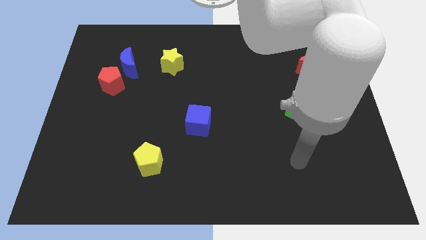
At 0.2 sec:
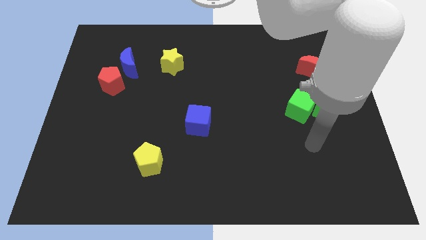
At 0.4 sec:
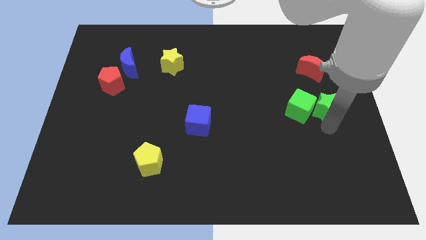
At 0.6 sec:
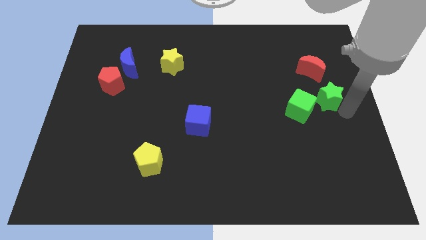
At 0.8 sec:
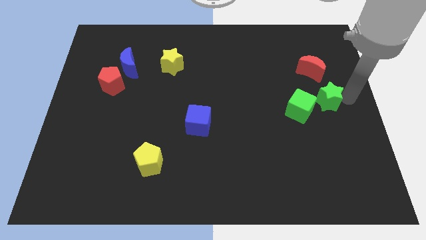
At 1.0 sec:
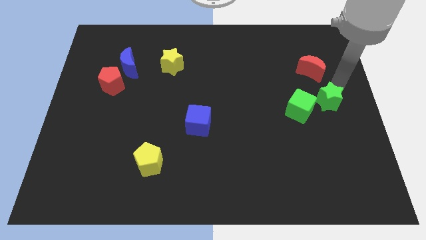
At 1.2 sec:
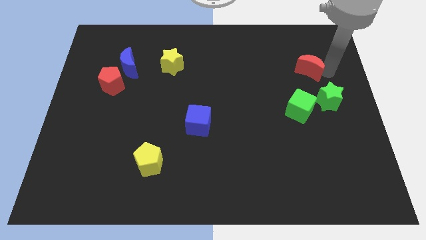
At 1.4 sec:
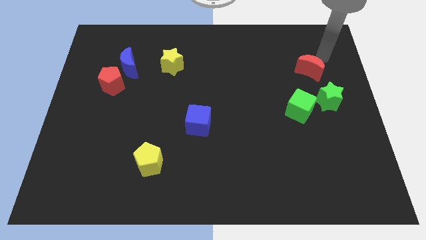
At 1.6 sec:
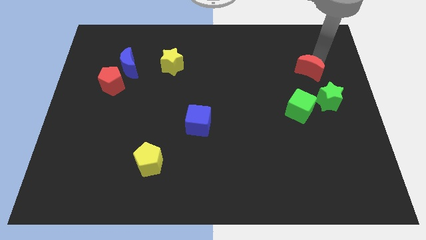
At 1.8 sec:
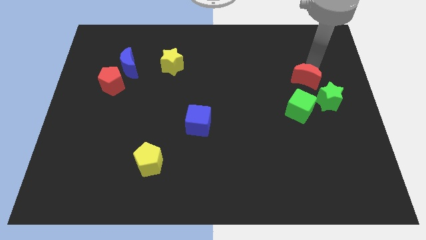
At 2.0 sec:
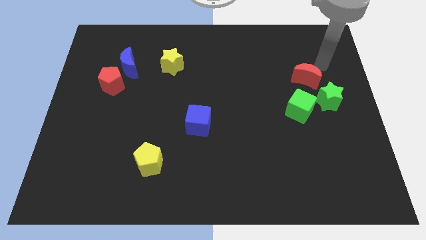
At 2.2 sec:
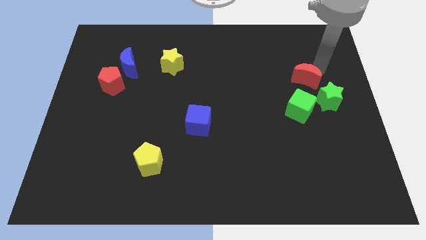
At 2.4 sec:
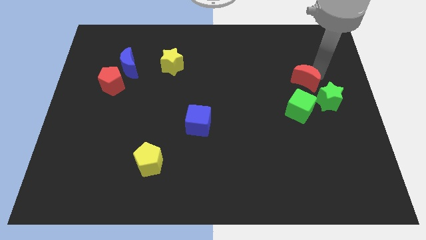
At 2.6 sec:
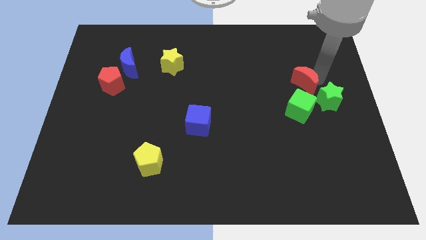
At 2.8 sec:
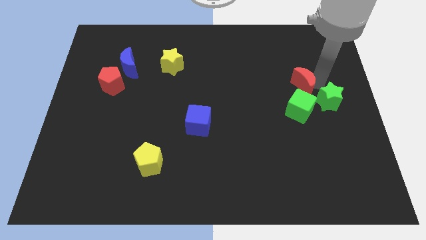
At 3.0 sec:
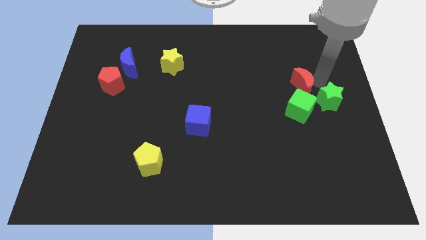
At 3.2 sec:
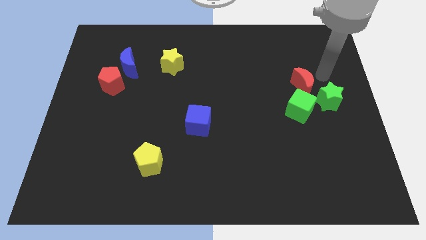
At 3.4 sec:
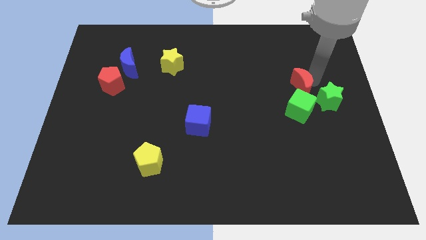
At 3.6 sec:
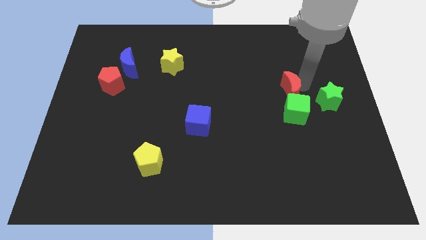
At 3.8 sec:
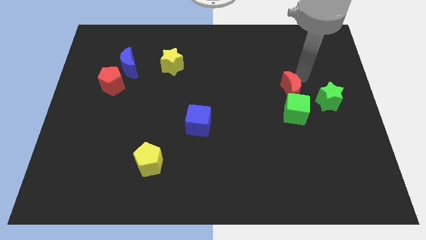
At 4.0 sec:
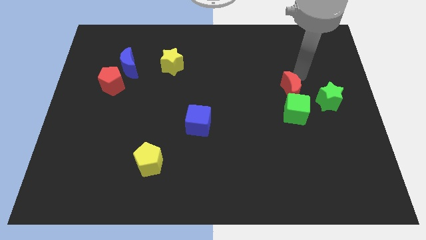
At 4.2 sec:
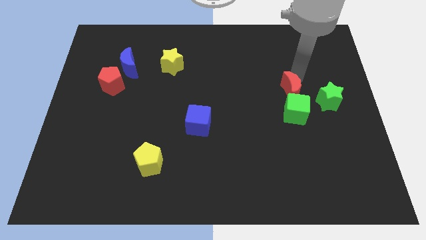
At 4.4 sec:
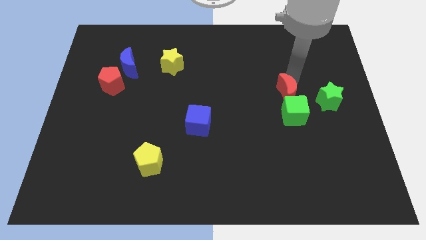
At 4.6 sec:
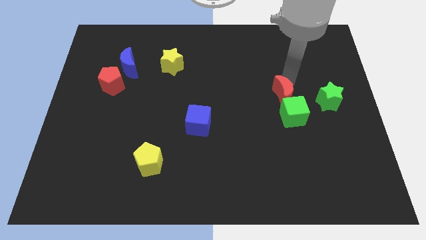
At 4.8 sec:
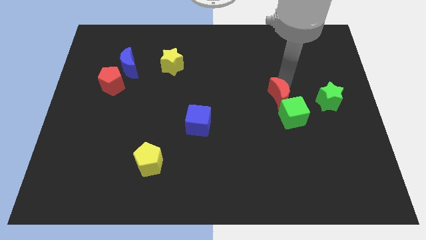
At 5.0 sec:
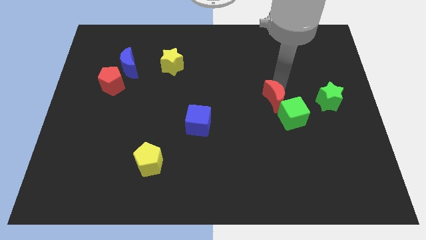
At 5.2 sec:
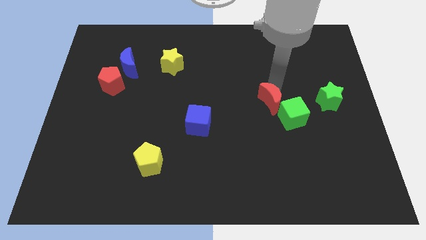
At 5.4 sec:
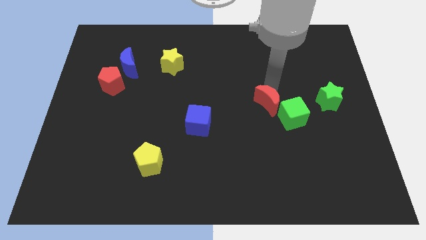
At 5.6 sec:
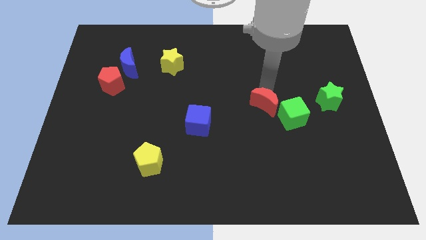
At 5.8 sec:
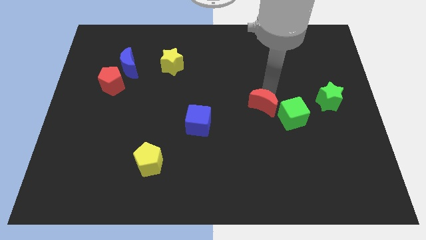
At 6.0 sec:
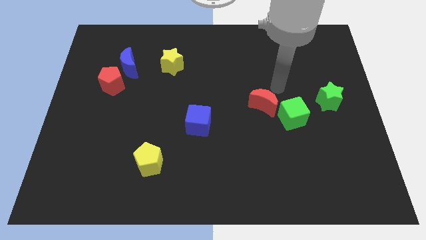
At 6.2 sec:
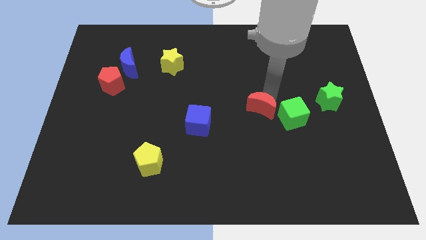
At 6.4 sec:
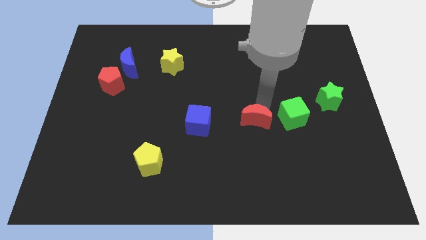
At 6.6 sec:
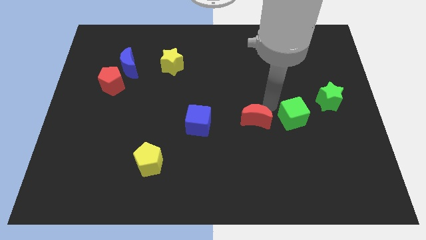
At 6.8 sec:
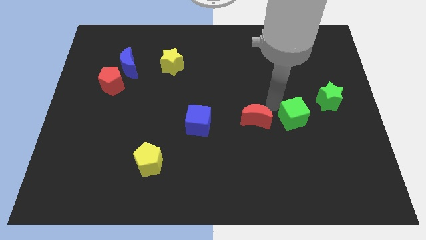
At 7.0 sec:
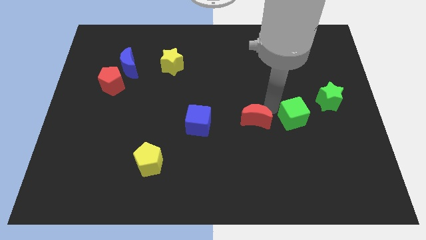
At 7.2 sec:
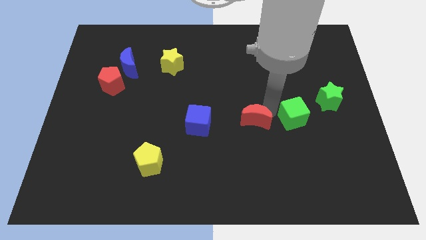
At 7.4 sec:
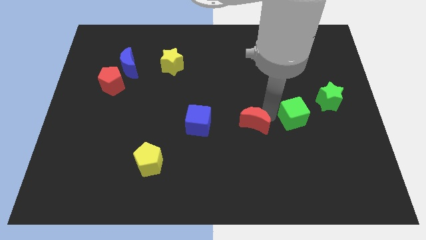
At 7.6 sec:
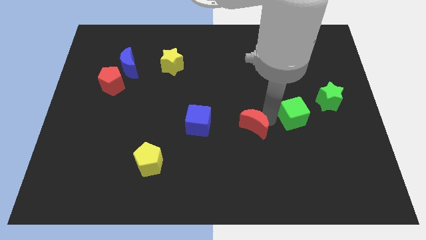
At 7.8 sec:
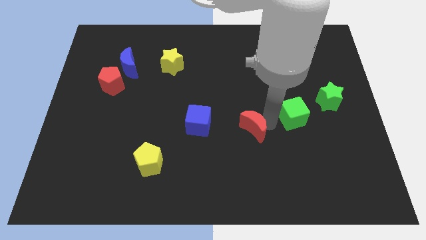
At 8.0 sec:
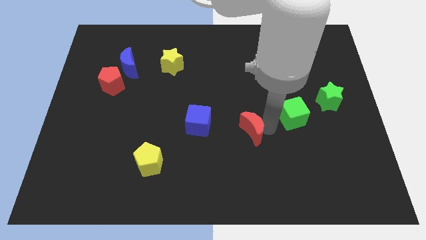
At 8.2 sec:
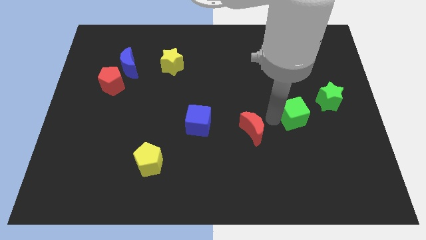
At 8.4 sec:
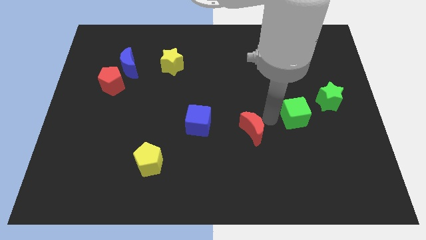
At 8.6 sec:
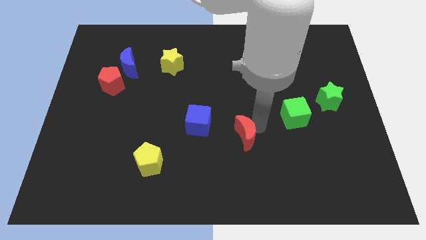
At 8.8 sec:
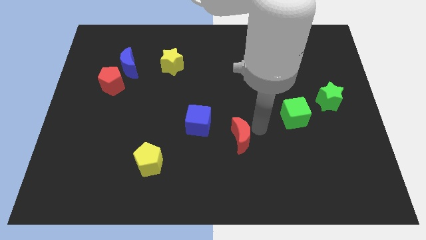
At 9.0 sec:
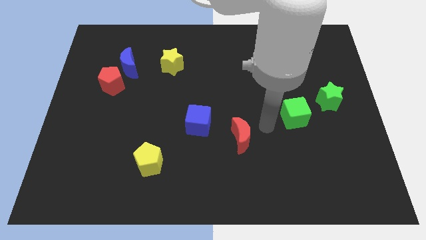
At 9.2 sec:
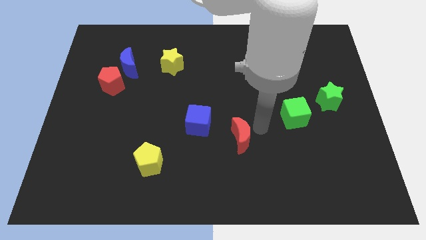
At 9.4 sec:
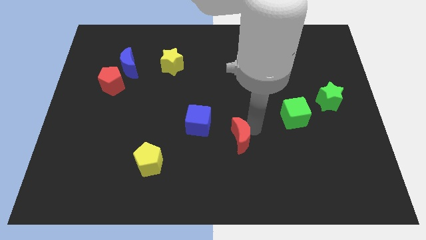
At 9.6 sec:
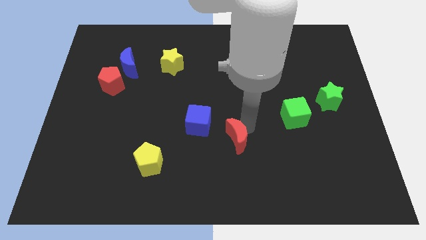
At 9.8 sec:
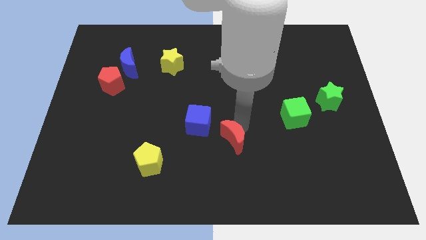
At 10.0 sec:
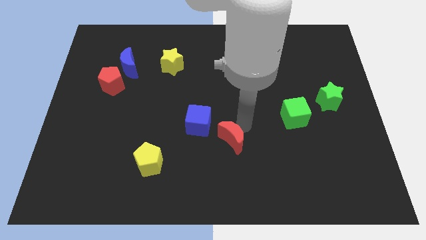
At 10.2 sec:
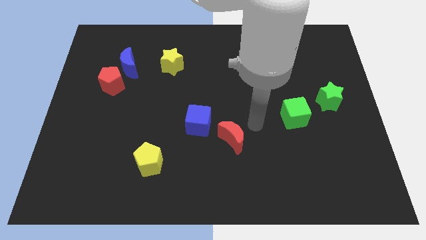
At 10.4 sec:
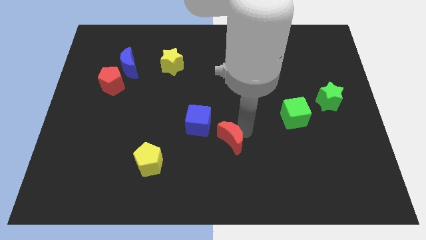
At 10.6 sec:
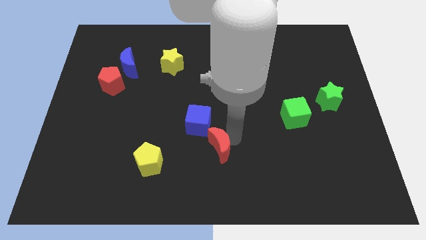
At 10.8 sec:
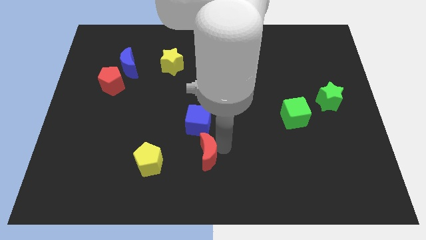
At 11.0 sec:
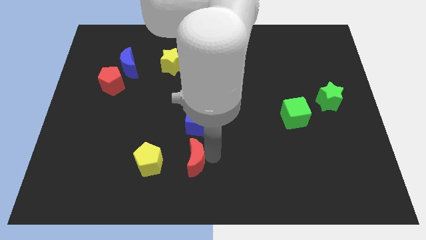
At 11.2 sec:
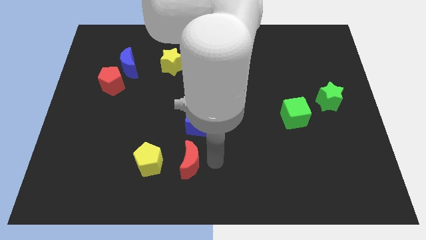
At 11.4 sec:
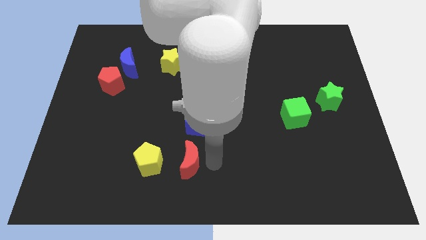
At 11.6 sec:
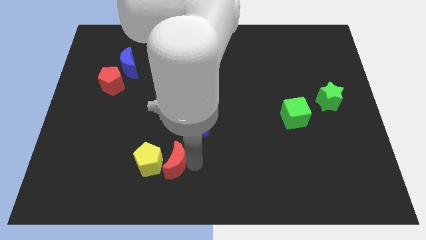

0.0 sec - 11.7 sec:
move the red moon next to the yellow pentagon

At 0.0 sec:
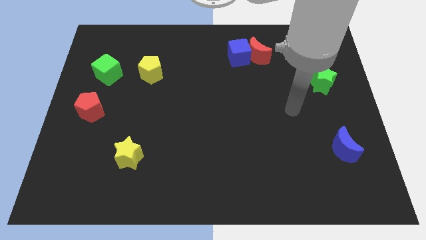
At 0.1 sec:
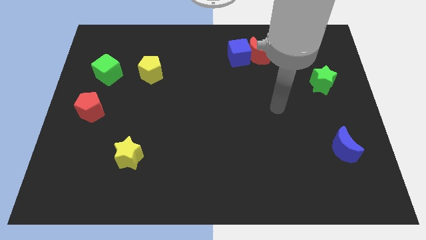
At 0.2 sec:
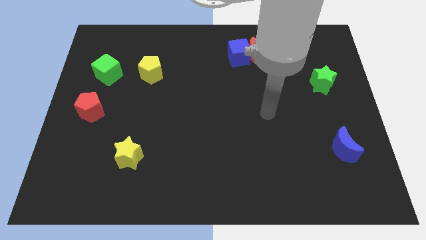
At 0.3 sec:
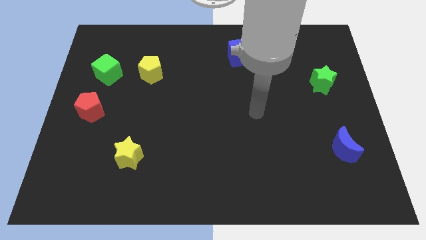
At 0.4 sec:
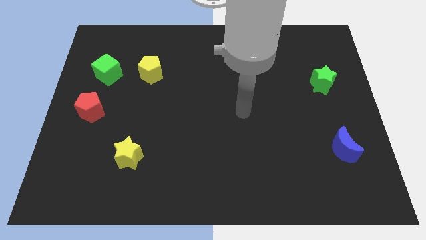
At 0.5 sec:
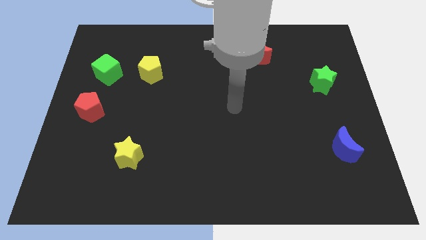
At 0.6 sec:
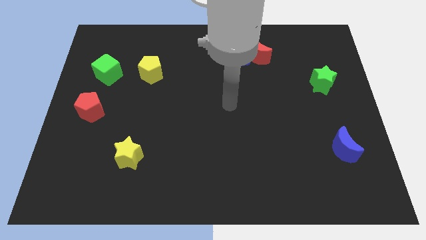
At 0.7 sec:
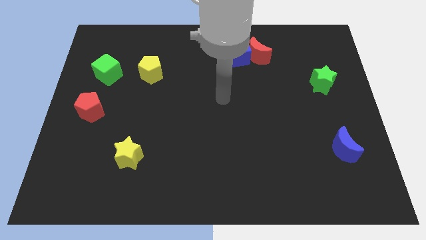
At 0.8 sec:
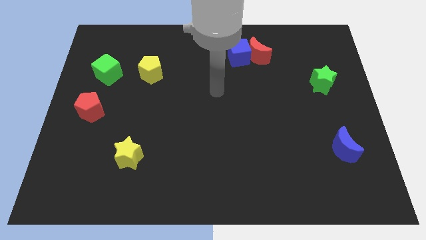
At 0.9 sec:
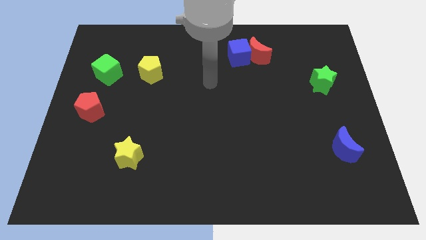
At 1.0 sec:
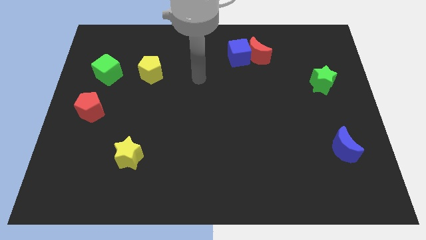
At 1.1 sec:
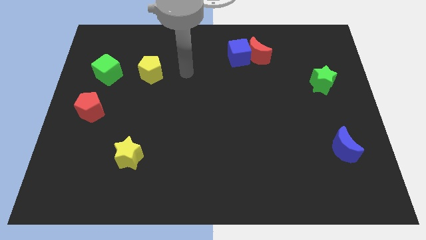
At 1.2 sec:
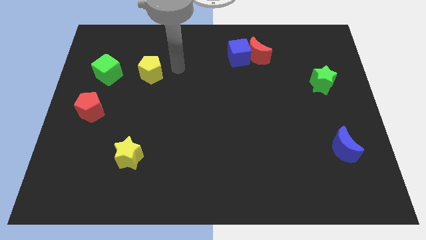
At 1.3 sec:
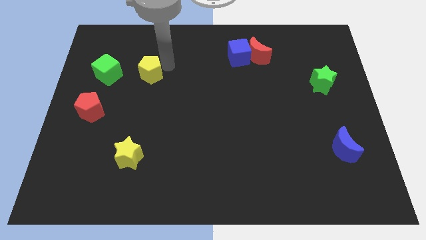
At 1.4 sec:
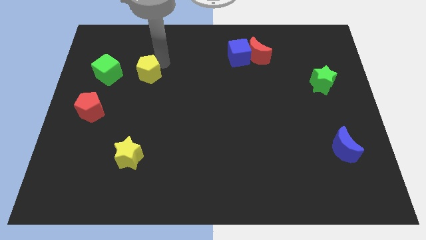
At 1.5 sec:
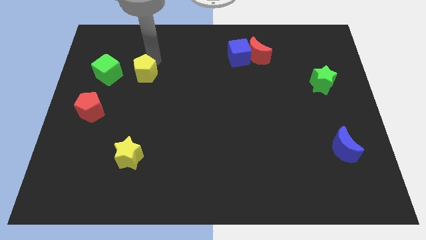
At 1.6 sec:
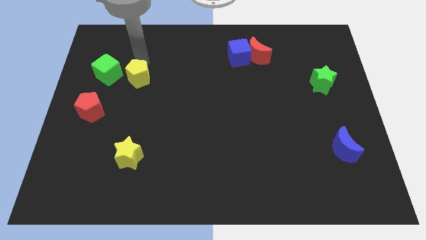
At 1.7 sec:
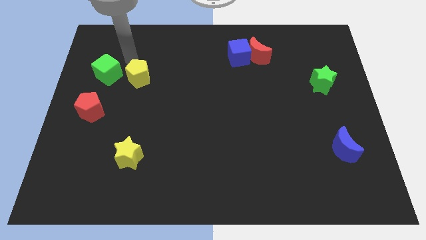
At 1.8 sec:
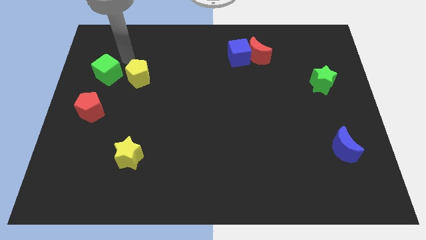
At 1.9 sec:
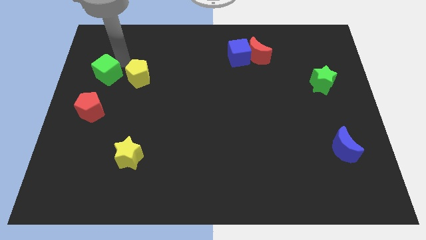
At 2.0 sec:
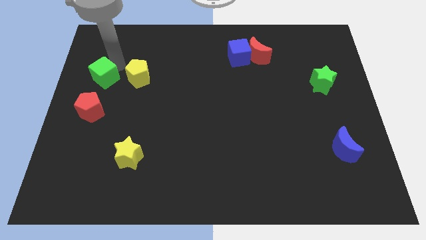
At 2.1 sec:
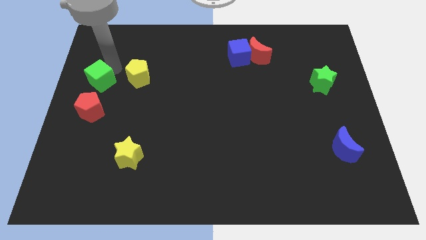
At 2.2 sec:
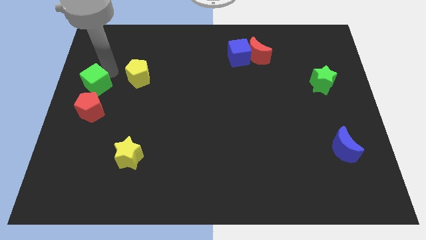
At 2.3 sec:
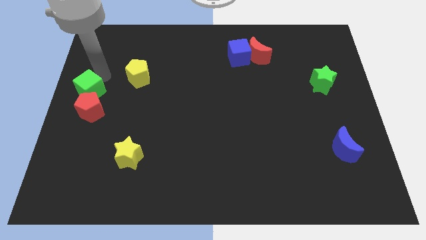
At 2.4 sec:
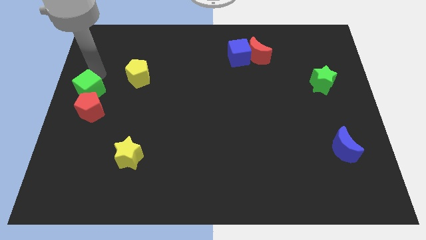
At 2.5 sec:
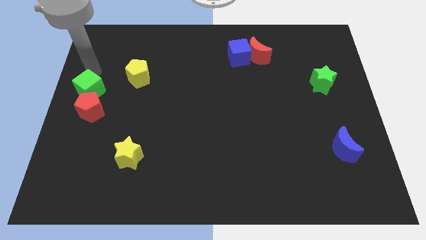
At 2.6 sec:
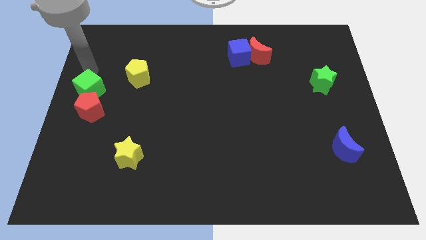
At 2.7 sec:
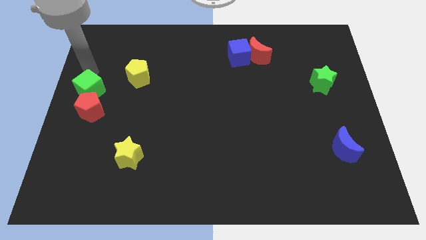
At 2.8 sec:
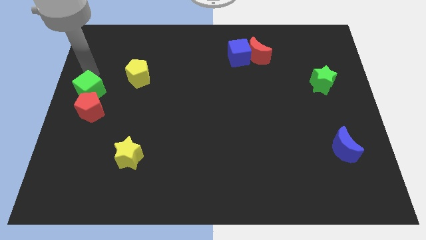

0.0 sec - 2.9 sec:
move the green cube towards the red pentagon
